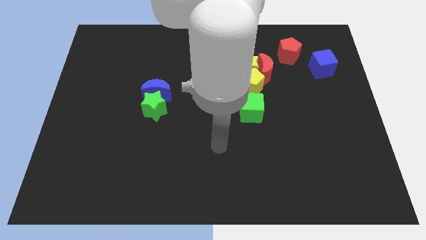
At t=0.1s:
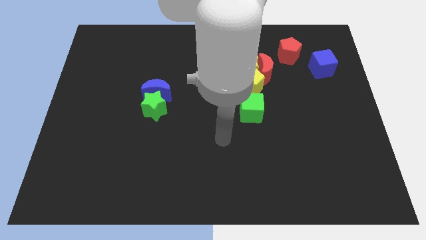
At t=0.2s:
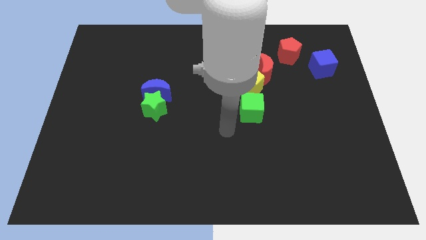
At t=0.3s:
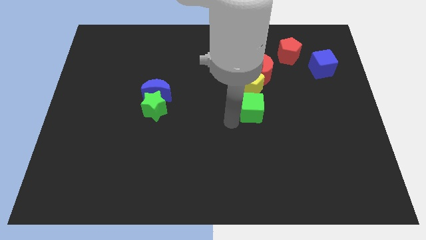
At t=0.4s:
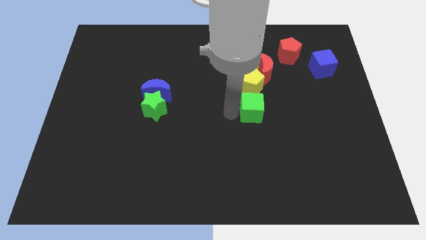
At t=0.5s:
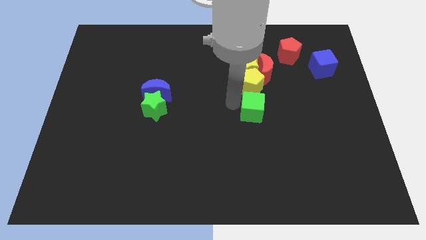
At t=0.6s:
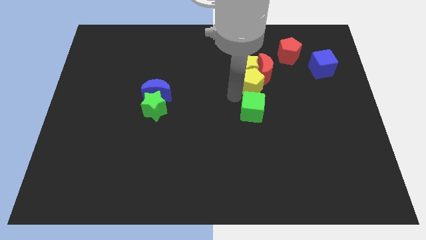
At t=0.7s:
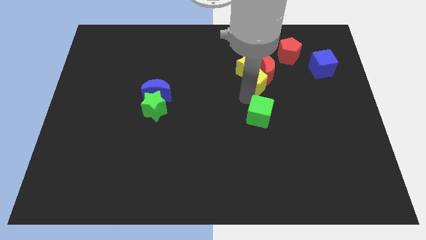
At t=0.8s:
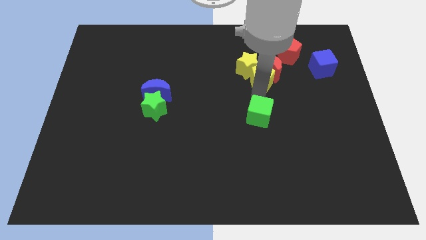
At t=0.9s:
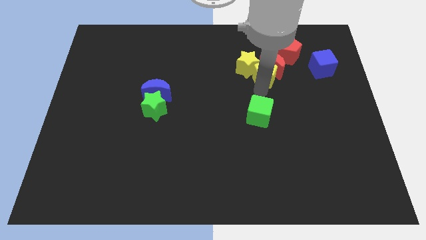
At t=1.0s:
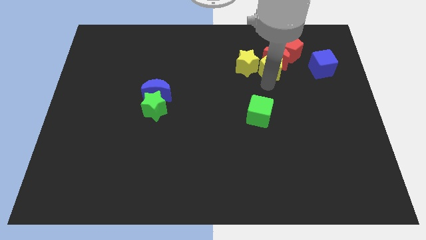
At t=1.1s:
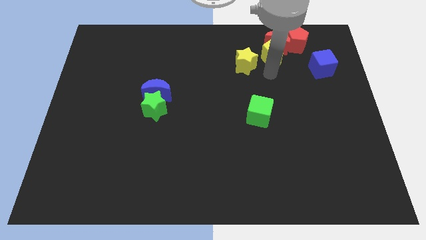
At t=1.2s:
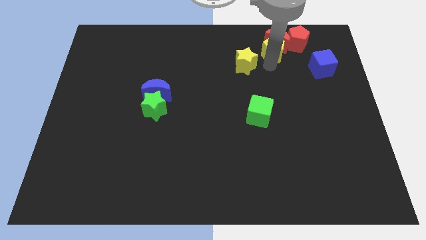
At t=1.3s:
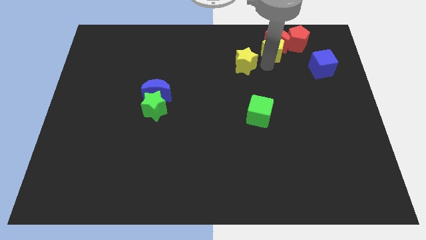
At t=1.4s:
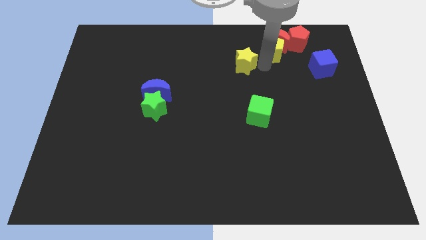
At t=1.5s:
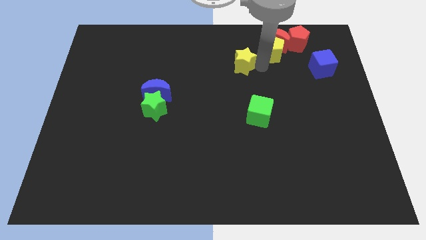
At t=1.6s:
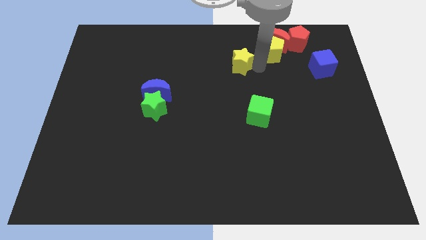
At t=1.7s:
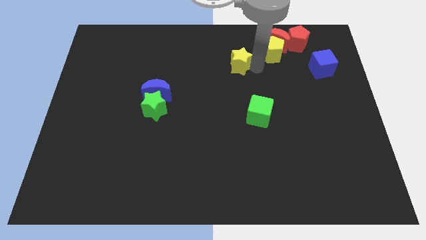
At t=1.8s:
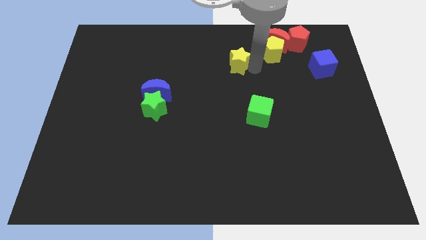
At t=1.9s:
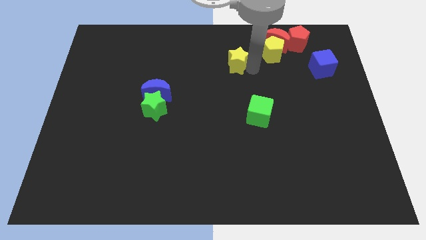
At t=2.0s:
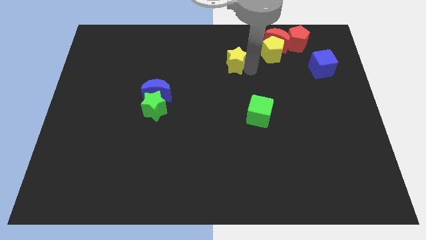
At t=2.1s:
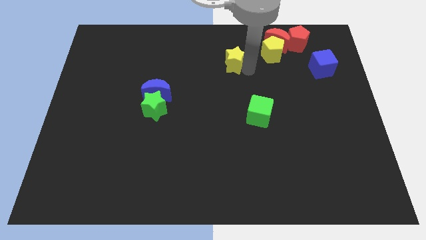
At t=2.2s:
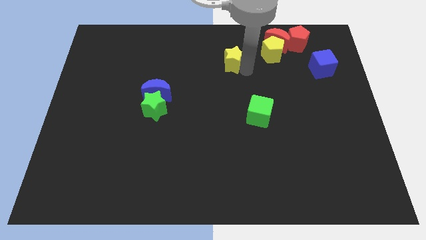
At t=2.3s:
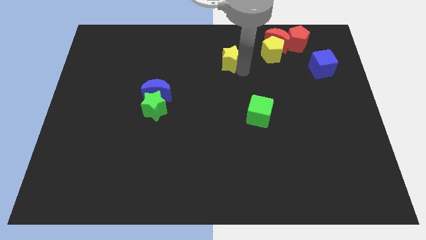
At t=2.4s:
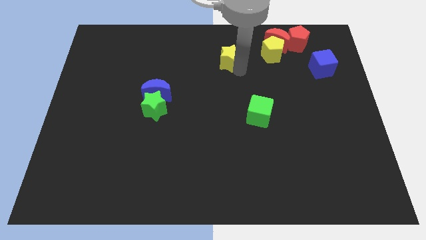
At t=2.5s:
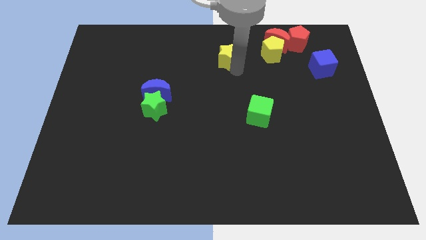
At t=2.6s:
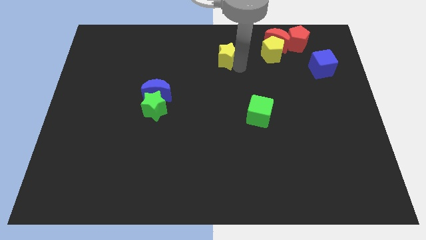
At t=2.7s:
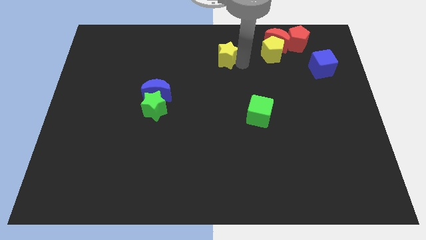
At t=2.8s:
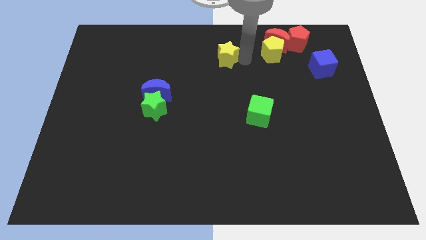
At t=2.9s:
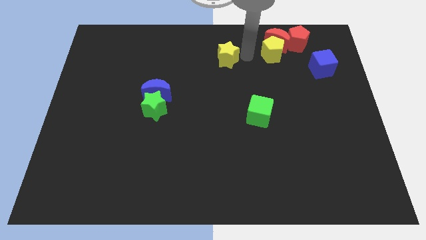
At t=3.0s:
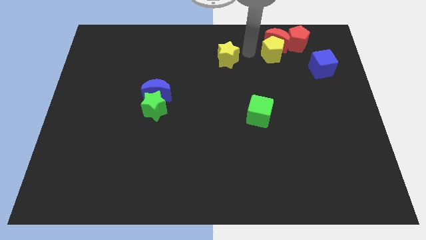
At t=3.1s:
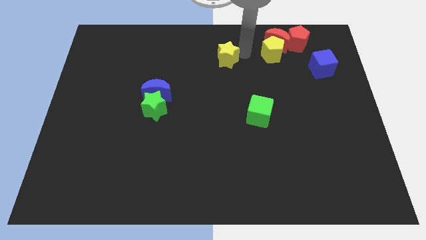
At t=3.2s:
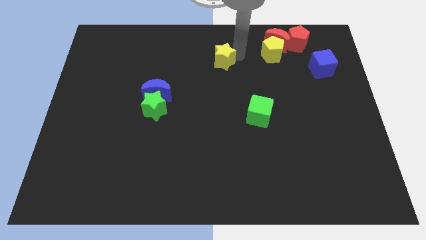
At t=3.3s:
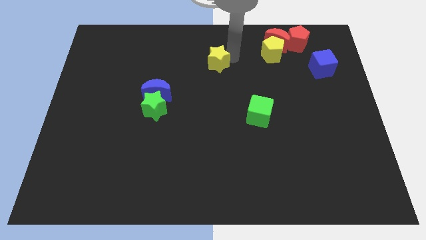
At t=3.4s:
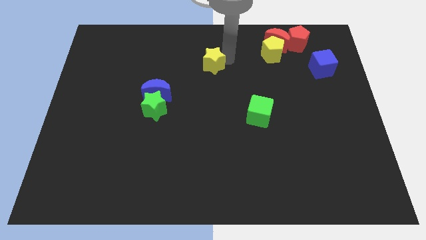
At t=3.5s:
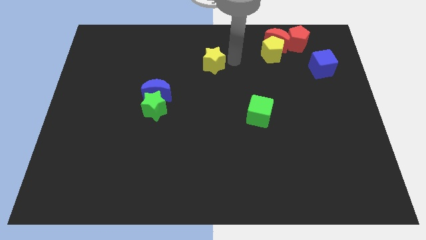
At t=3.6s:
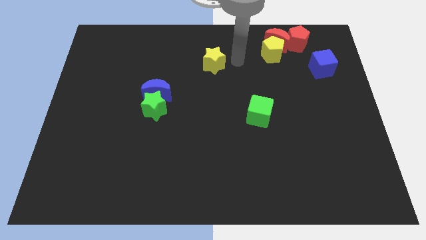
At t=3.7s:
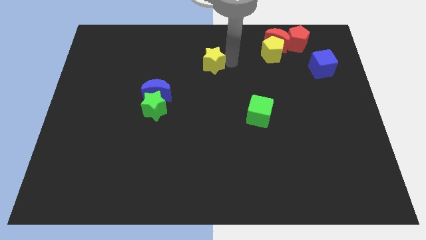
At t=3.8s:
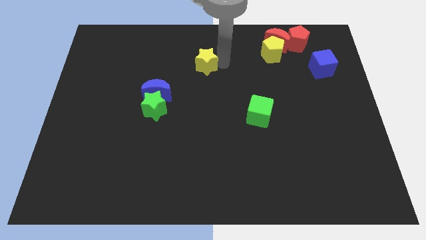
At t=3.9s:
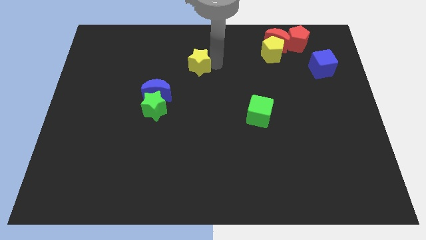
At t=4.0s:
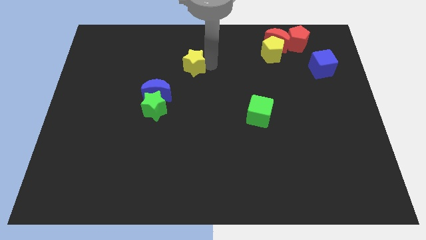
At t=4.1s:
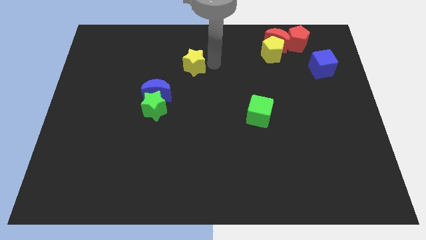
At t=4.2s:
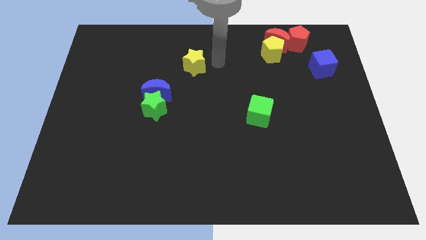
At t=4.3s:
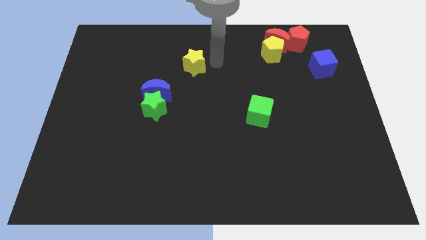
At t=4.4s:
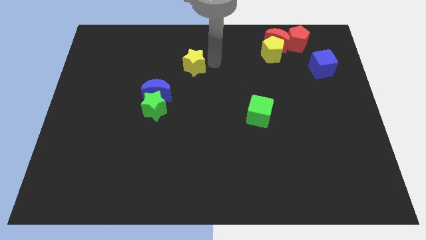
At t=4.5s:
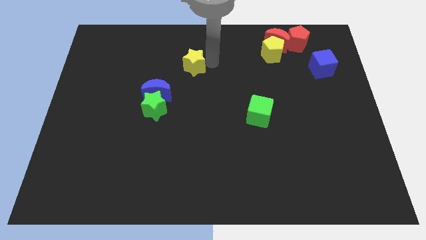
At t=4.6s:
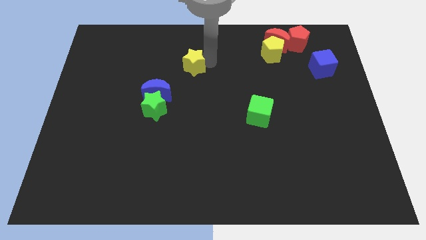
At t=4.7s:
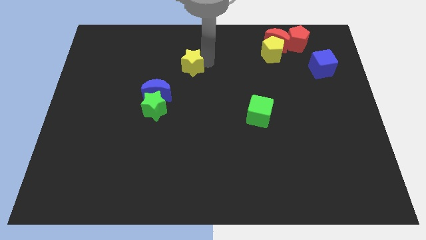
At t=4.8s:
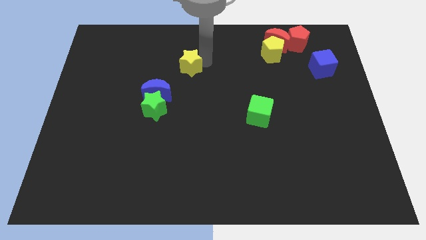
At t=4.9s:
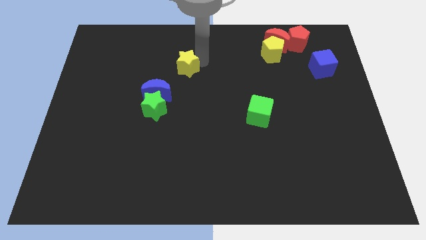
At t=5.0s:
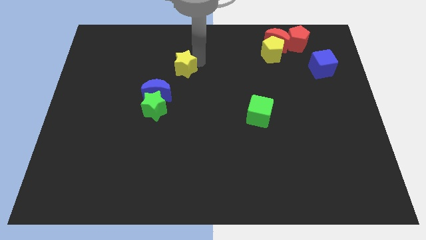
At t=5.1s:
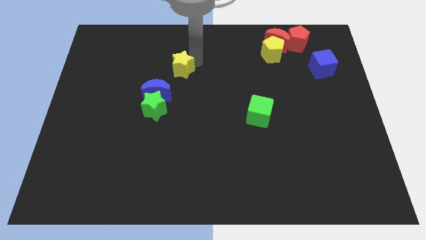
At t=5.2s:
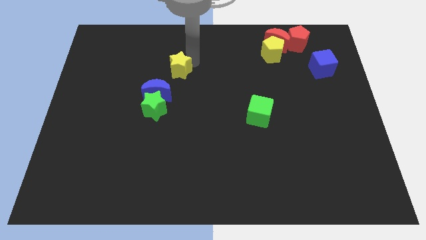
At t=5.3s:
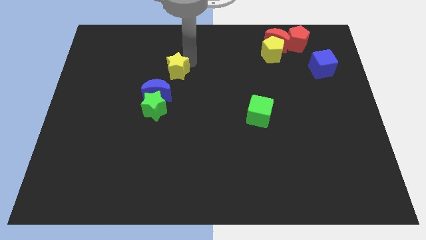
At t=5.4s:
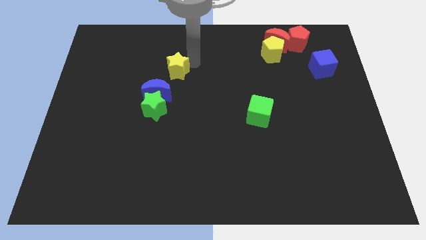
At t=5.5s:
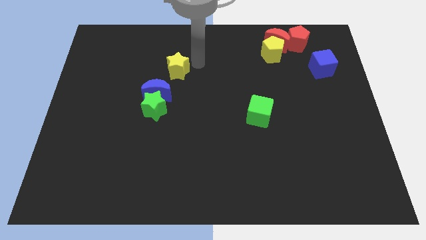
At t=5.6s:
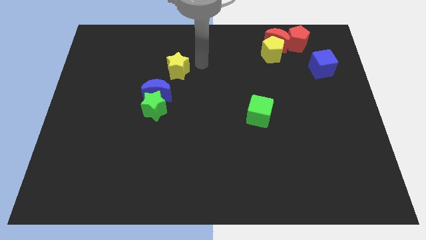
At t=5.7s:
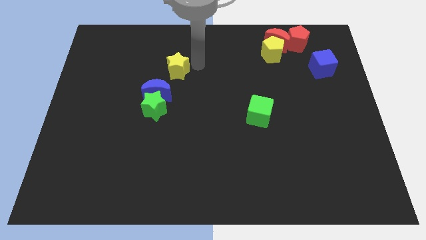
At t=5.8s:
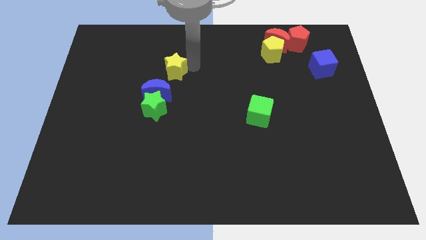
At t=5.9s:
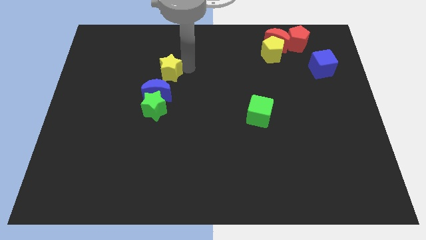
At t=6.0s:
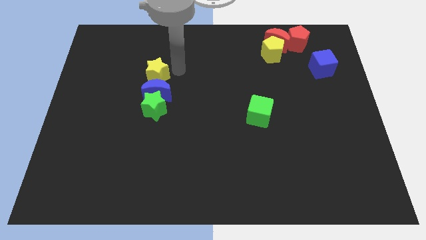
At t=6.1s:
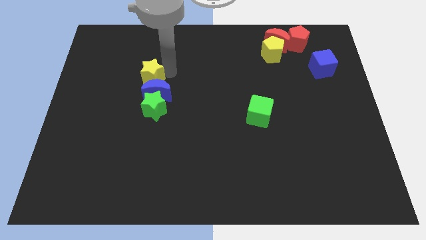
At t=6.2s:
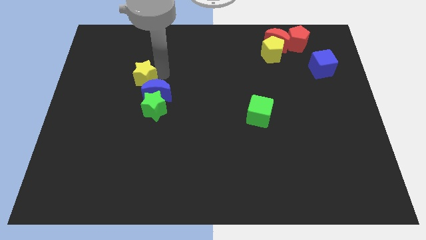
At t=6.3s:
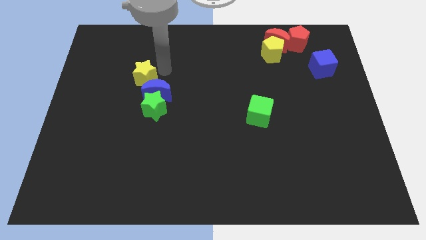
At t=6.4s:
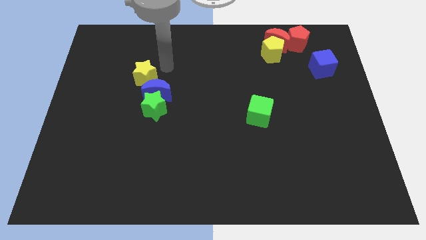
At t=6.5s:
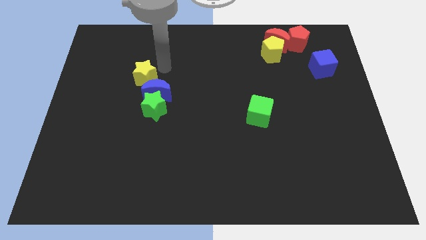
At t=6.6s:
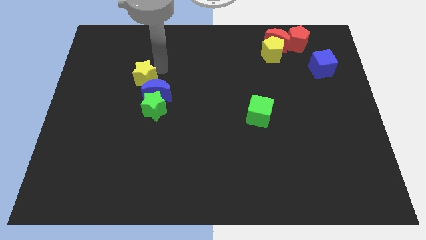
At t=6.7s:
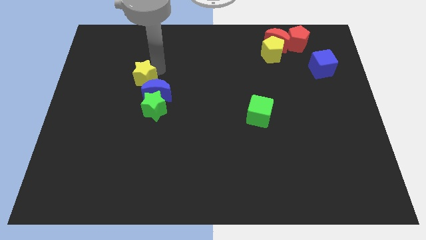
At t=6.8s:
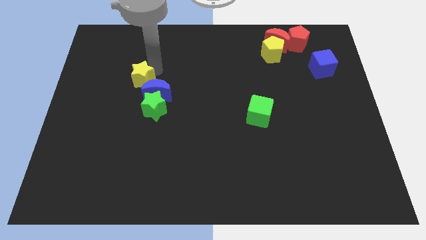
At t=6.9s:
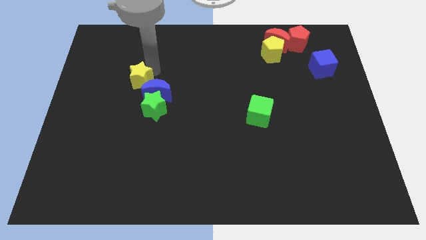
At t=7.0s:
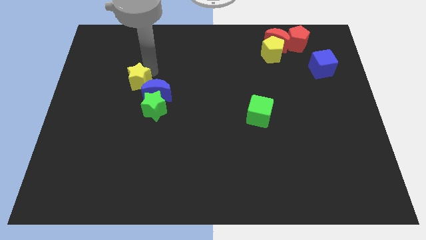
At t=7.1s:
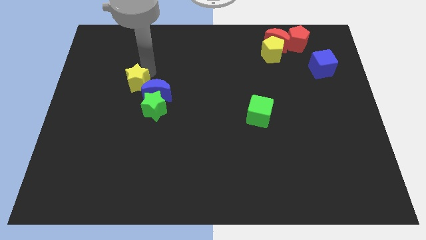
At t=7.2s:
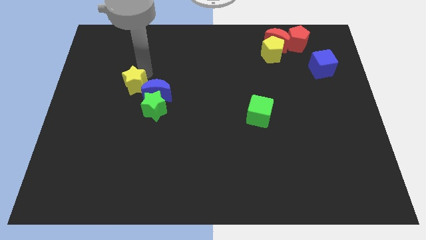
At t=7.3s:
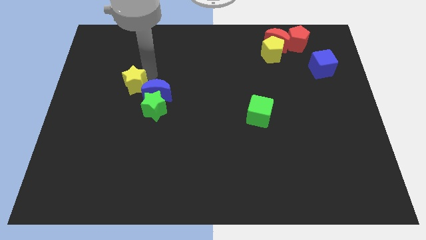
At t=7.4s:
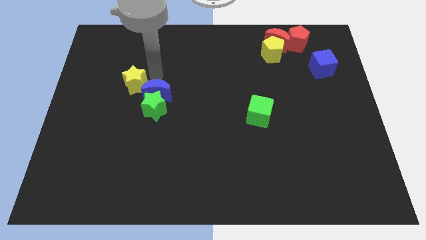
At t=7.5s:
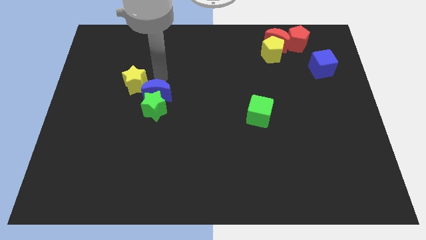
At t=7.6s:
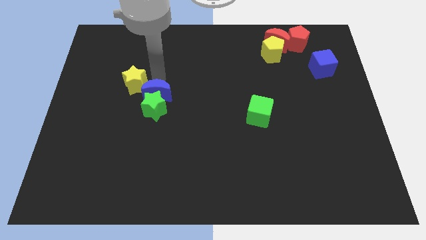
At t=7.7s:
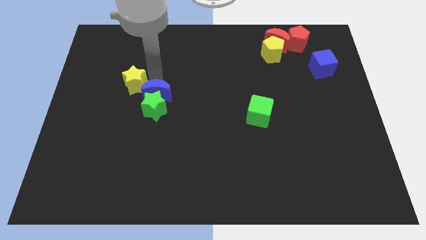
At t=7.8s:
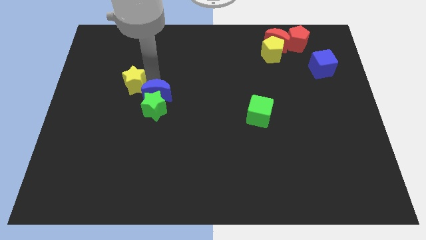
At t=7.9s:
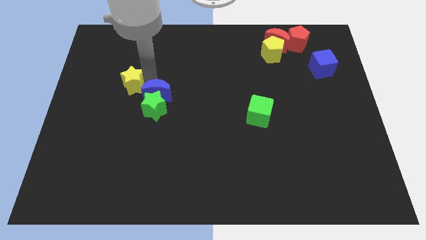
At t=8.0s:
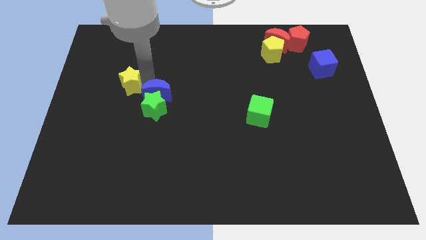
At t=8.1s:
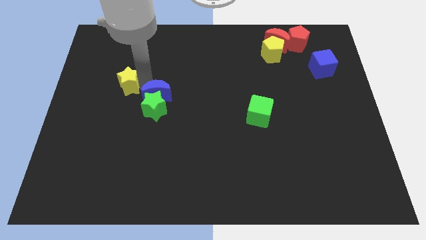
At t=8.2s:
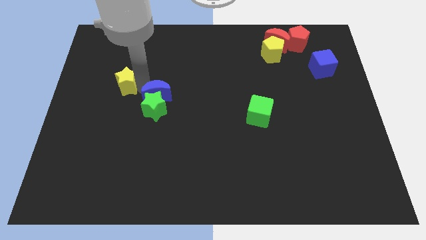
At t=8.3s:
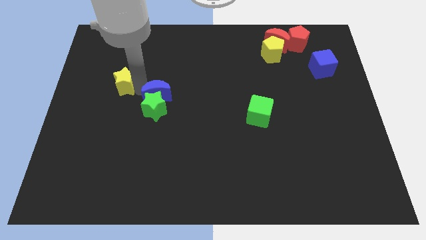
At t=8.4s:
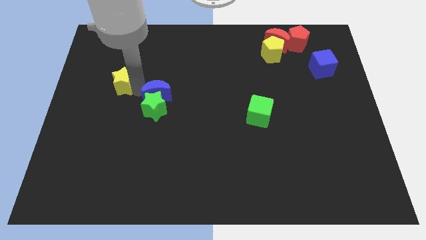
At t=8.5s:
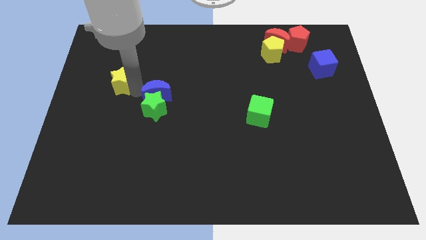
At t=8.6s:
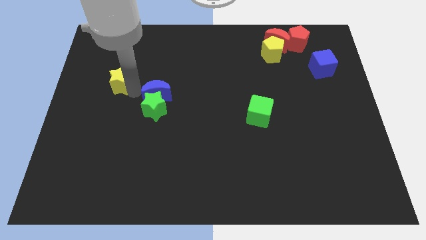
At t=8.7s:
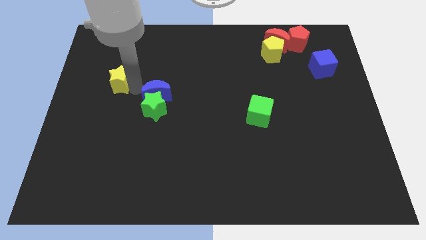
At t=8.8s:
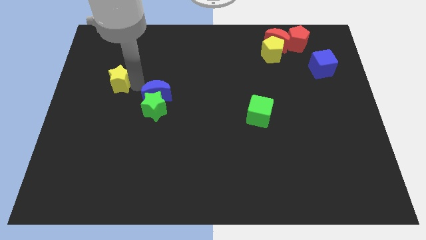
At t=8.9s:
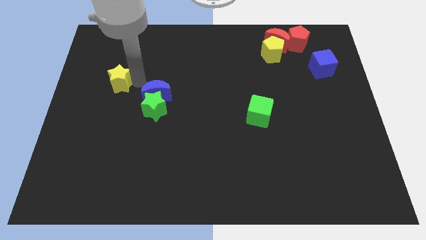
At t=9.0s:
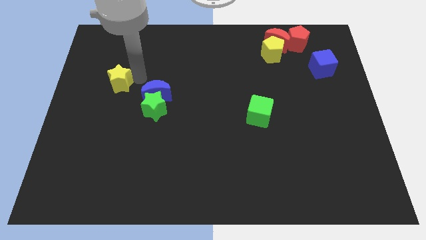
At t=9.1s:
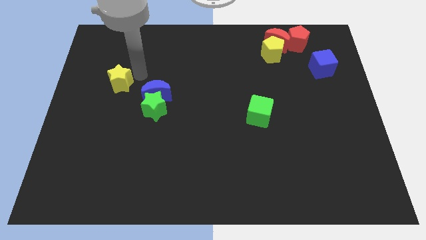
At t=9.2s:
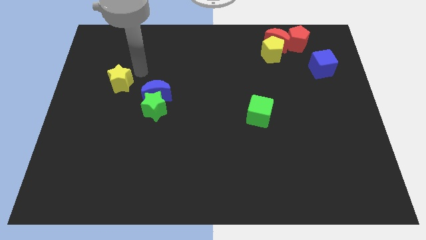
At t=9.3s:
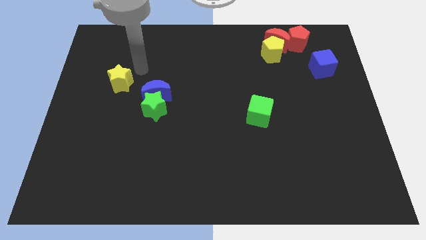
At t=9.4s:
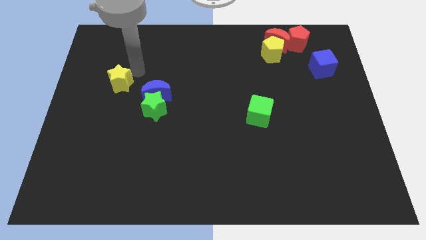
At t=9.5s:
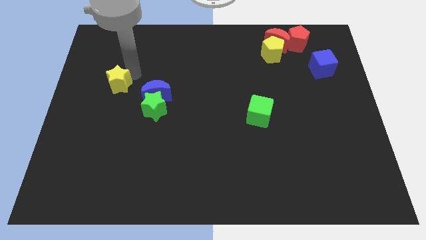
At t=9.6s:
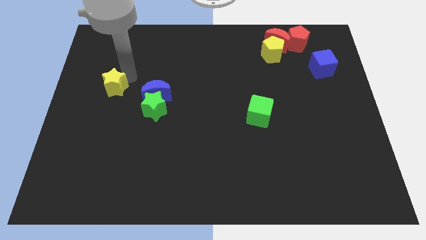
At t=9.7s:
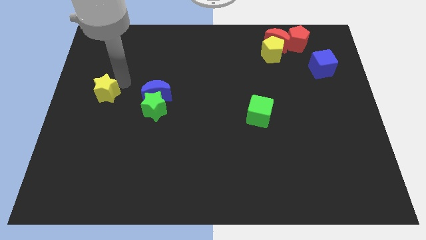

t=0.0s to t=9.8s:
slide the yellow star to the left side
